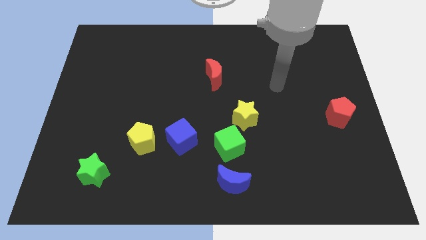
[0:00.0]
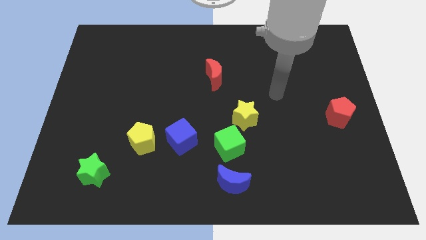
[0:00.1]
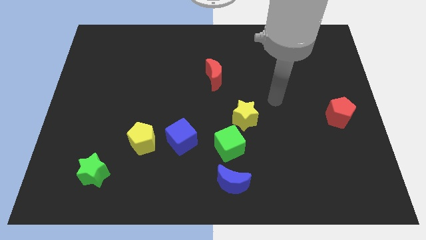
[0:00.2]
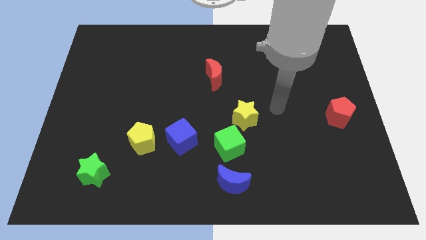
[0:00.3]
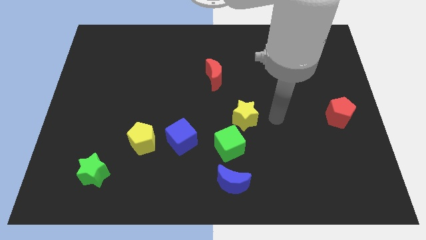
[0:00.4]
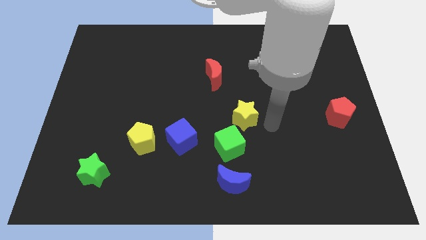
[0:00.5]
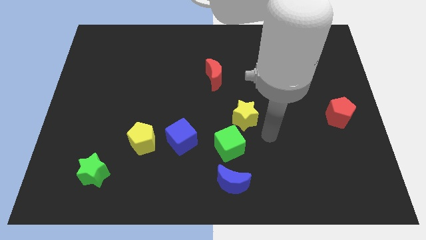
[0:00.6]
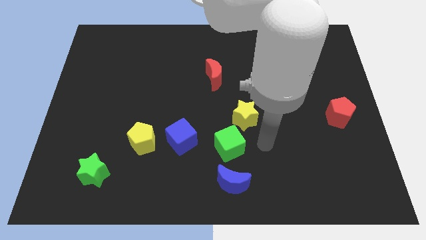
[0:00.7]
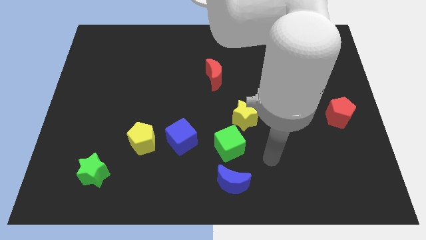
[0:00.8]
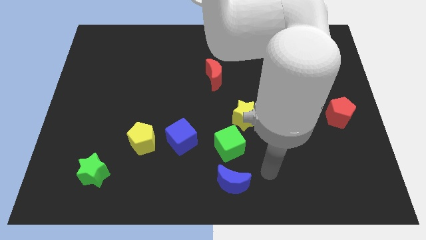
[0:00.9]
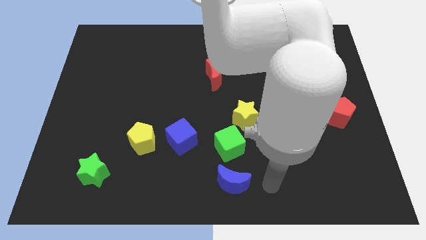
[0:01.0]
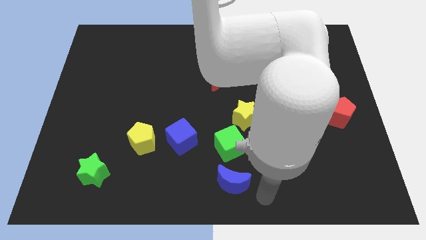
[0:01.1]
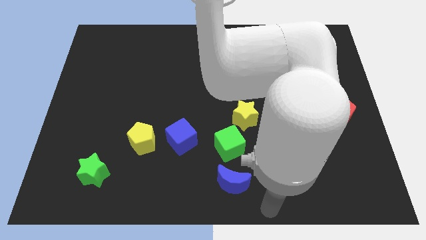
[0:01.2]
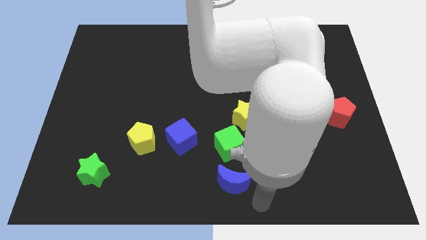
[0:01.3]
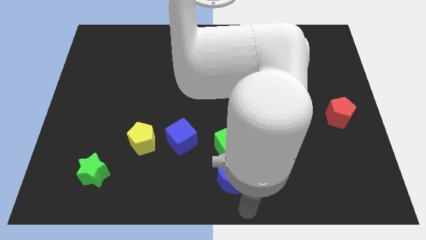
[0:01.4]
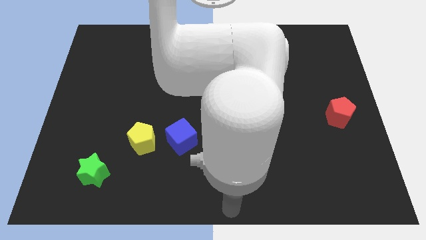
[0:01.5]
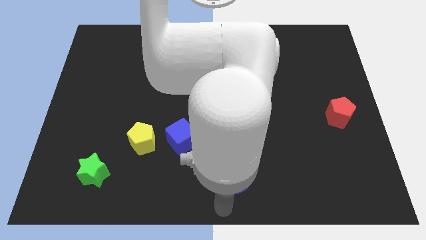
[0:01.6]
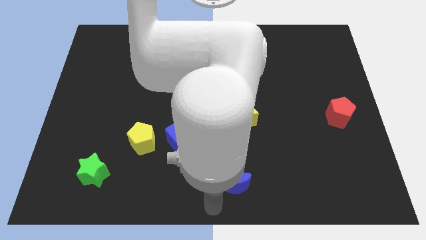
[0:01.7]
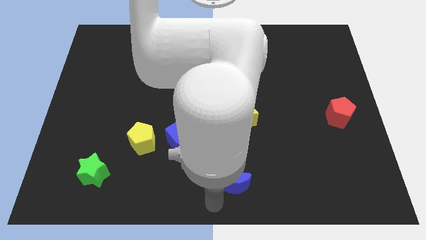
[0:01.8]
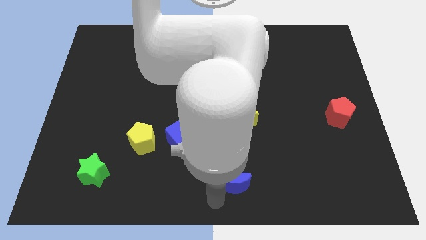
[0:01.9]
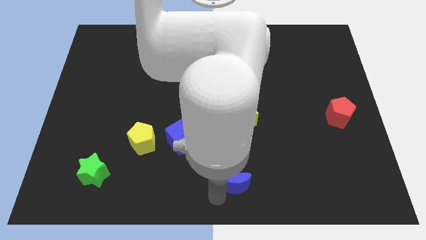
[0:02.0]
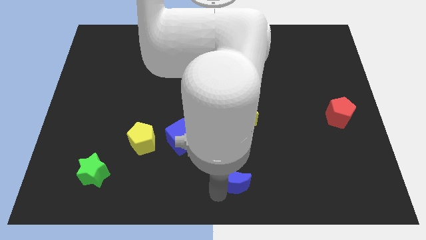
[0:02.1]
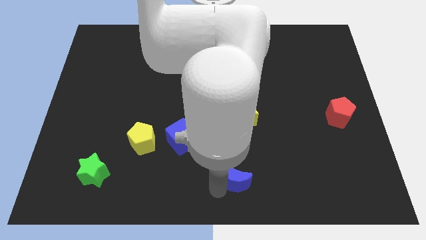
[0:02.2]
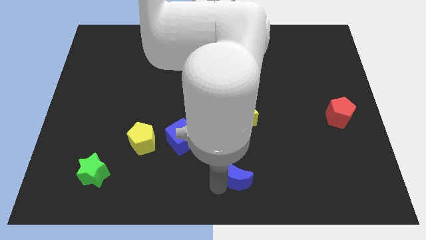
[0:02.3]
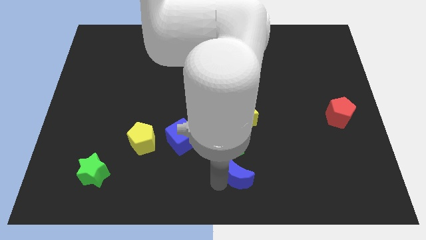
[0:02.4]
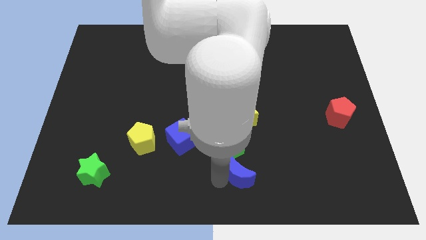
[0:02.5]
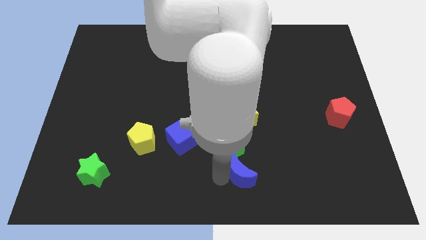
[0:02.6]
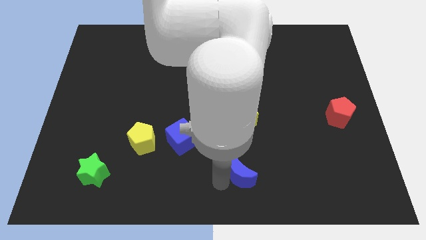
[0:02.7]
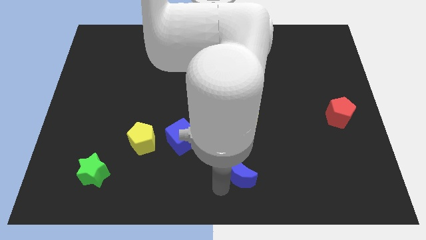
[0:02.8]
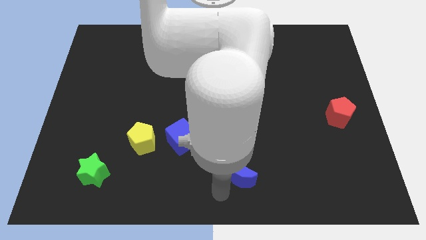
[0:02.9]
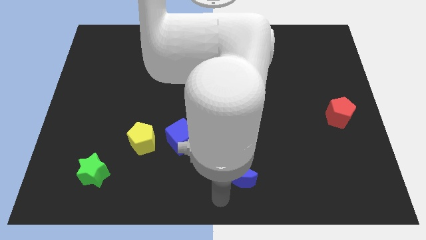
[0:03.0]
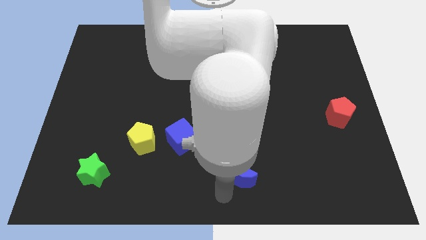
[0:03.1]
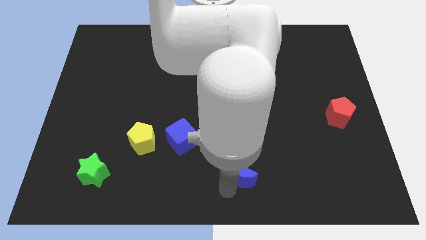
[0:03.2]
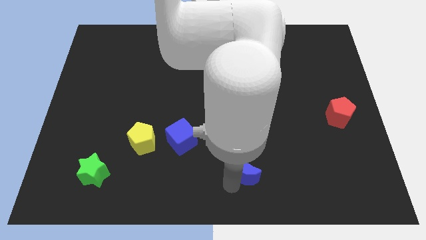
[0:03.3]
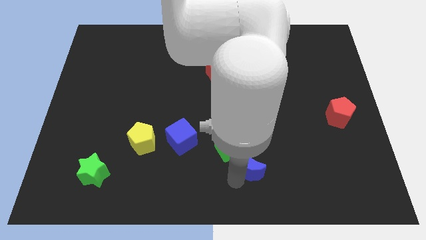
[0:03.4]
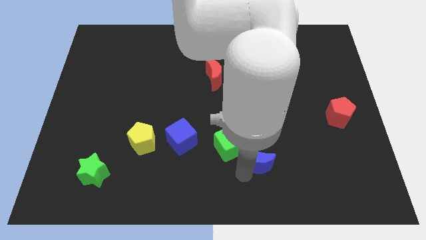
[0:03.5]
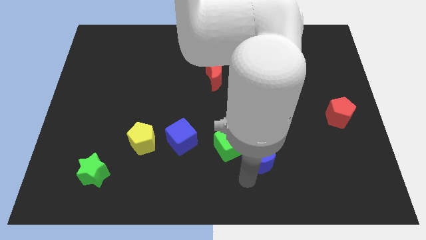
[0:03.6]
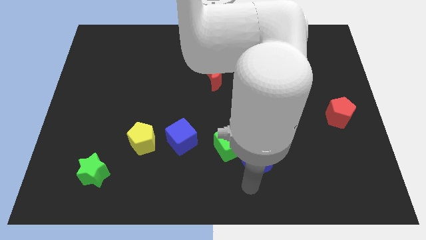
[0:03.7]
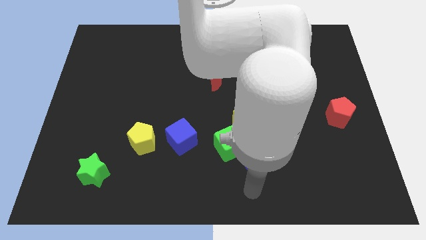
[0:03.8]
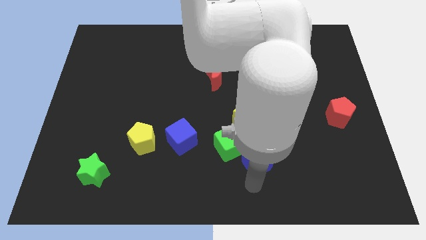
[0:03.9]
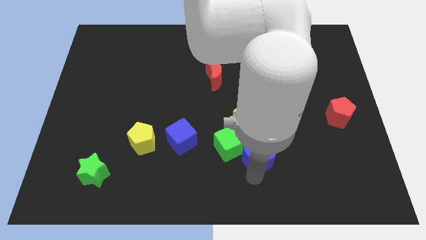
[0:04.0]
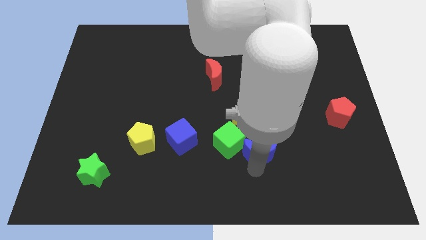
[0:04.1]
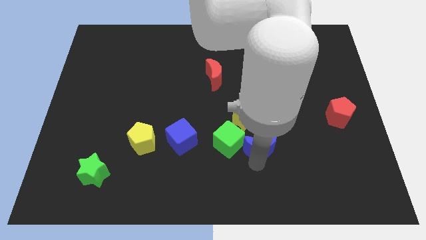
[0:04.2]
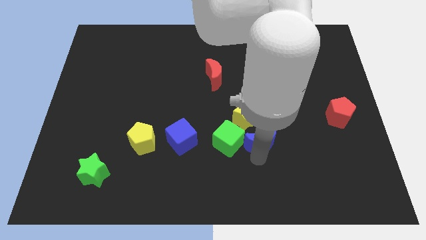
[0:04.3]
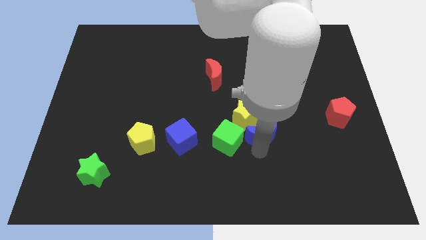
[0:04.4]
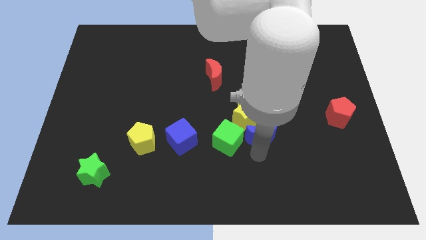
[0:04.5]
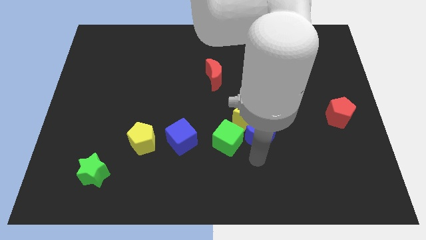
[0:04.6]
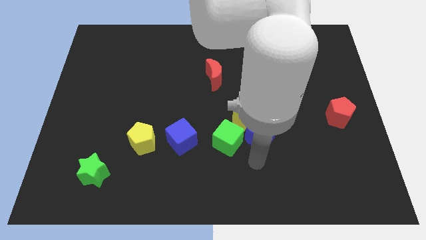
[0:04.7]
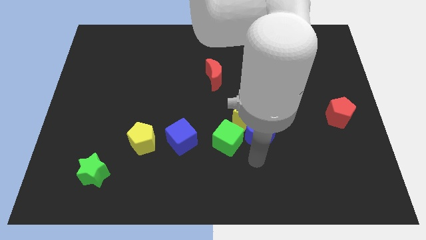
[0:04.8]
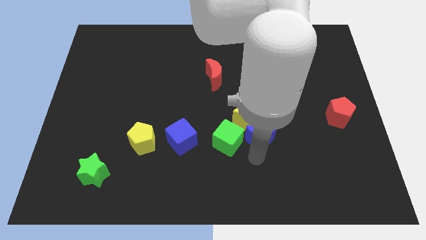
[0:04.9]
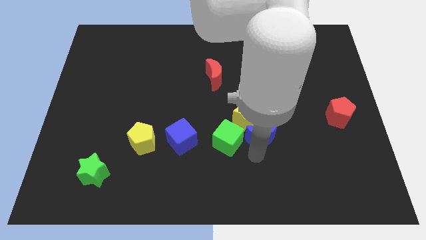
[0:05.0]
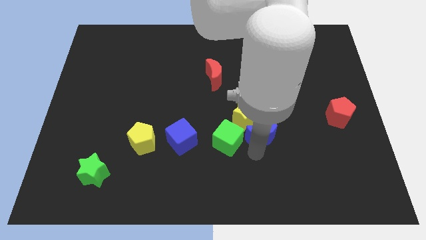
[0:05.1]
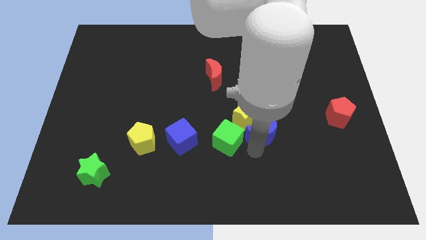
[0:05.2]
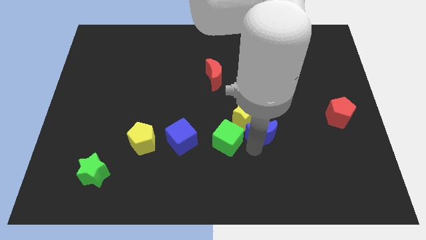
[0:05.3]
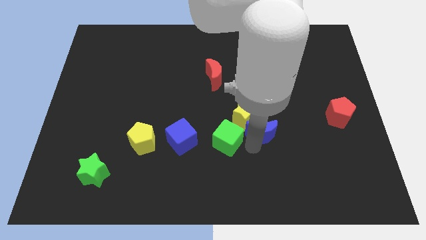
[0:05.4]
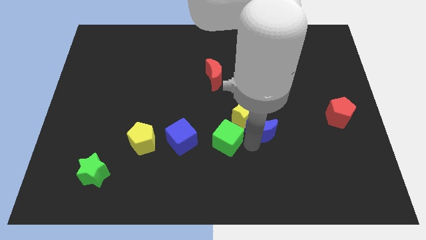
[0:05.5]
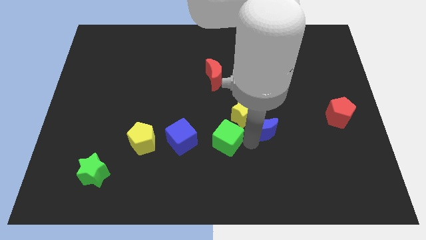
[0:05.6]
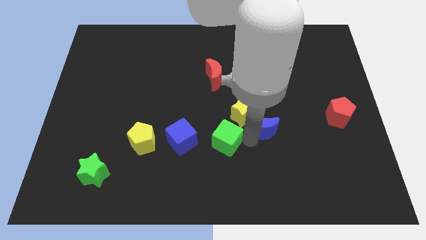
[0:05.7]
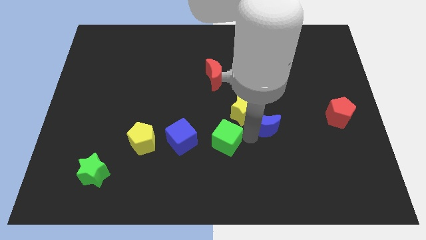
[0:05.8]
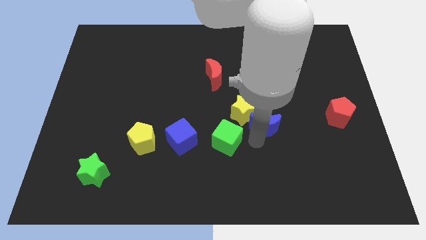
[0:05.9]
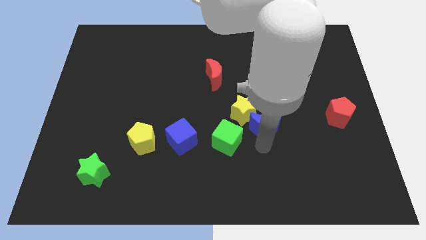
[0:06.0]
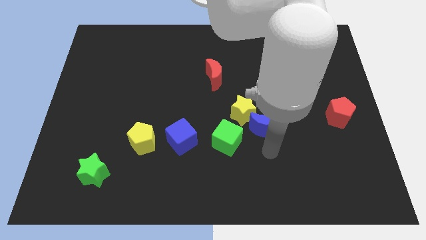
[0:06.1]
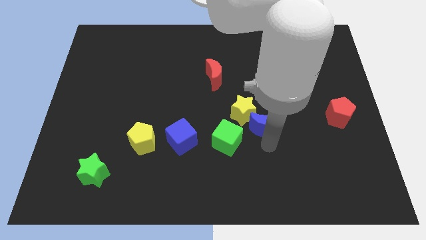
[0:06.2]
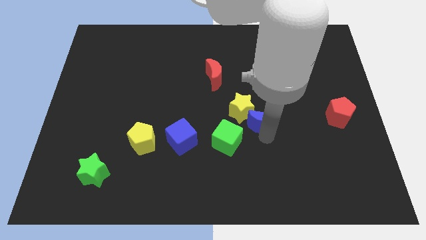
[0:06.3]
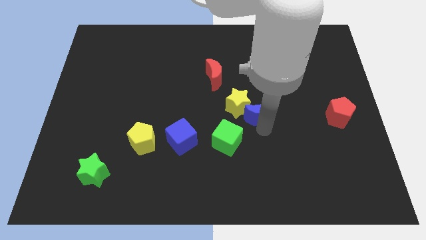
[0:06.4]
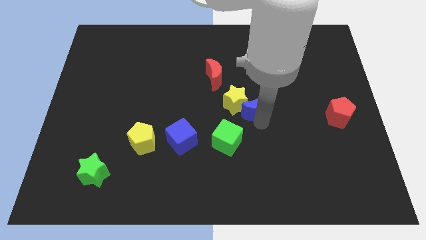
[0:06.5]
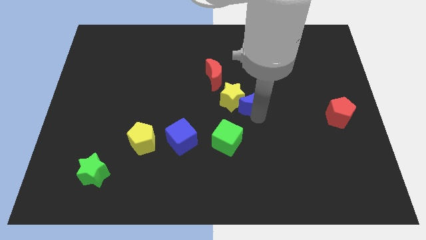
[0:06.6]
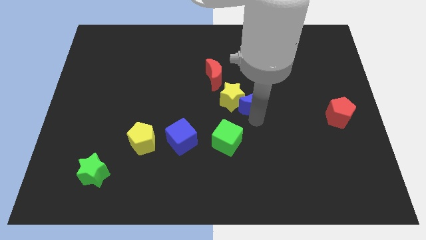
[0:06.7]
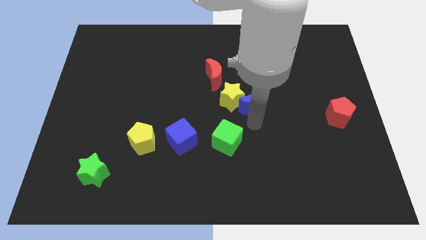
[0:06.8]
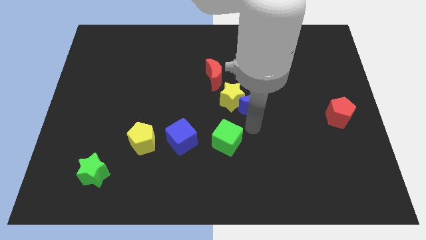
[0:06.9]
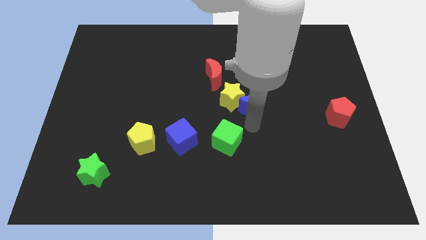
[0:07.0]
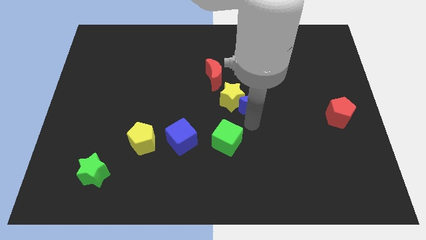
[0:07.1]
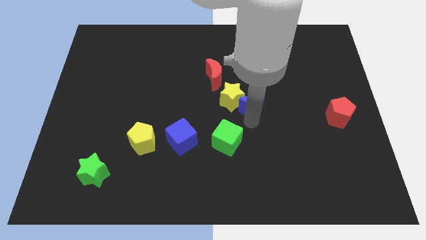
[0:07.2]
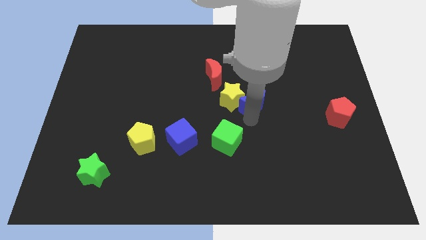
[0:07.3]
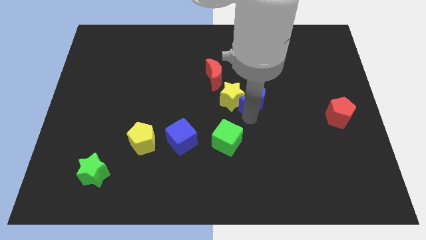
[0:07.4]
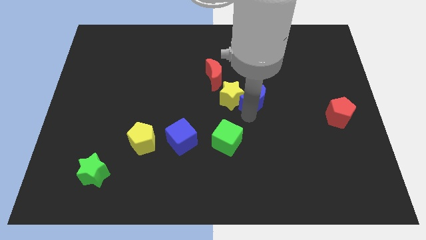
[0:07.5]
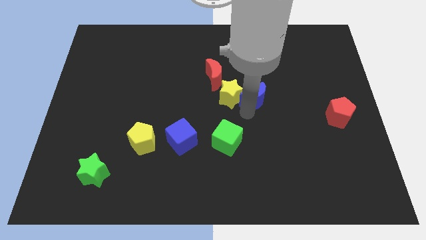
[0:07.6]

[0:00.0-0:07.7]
move the blue moon upwards
